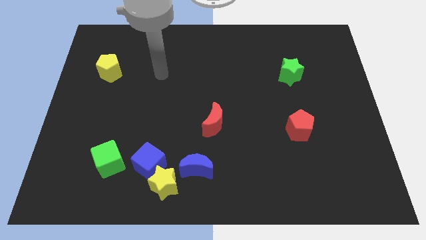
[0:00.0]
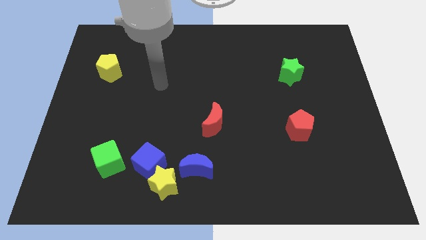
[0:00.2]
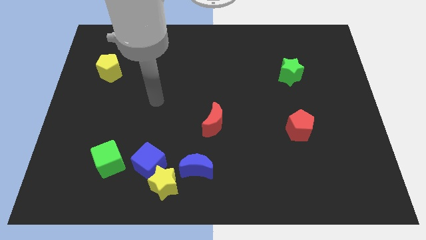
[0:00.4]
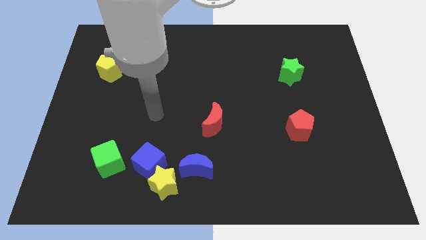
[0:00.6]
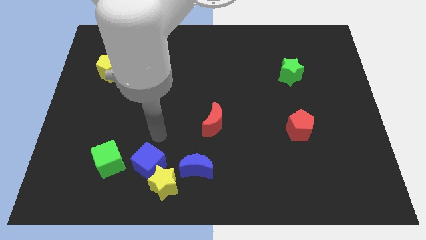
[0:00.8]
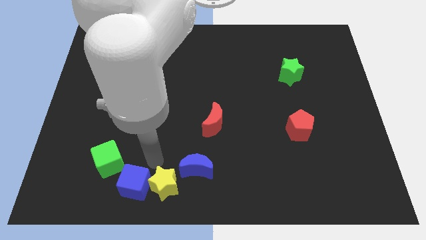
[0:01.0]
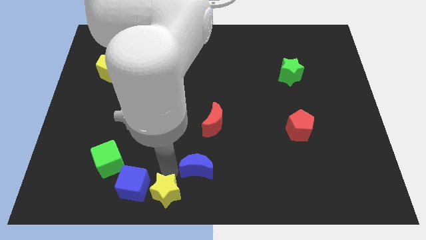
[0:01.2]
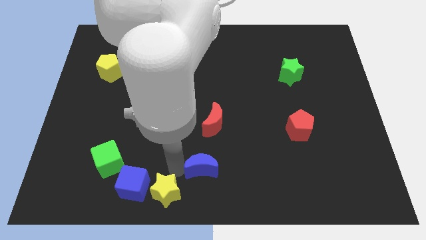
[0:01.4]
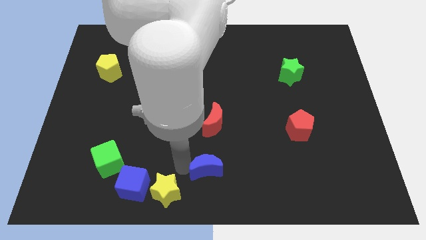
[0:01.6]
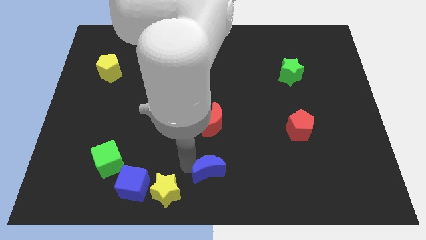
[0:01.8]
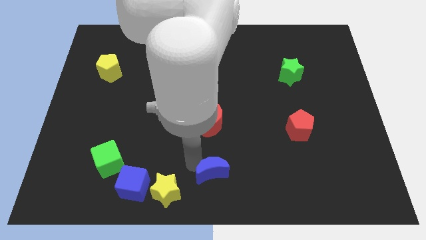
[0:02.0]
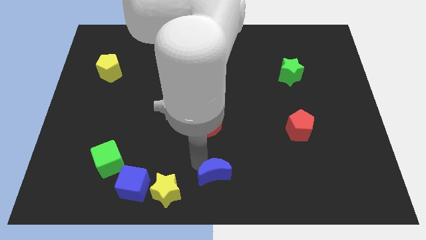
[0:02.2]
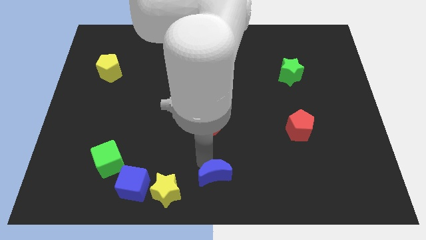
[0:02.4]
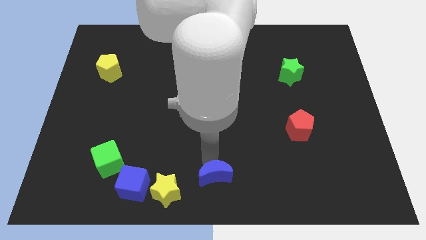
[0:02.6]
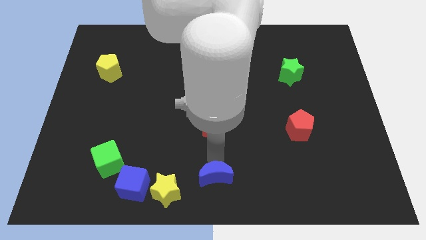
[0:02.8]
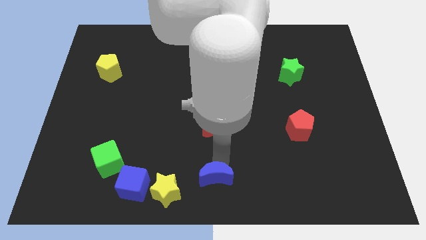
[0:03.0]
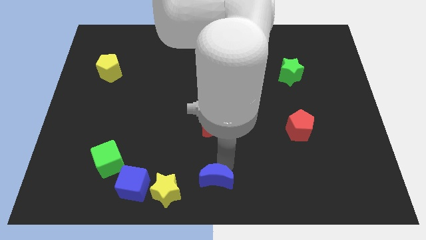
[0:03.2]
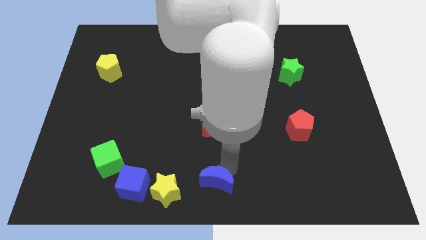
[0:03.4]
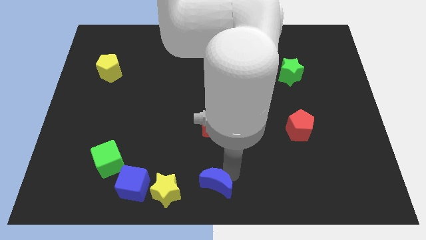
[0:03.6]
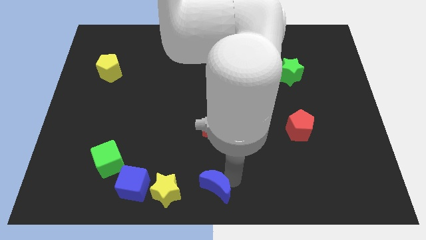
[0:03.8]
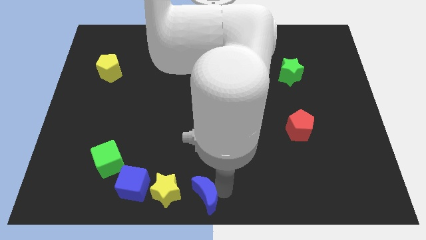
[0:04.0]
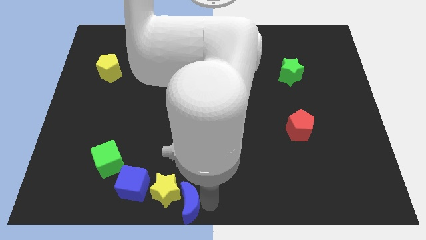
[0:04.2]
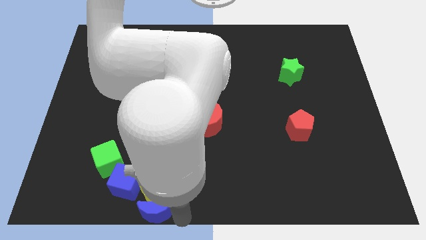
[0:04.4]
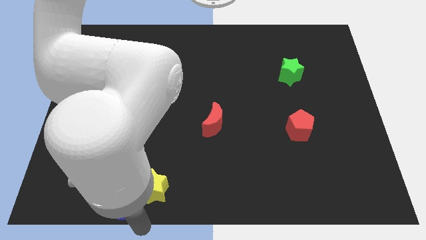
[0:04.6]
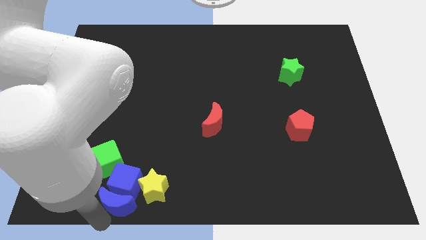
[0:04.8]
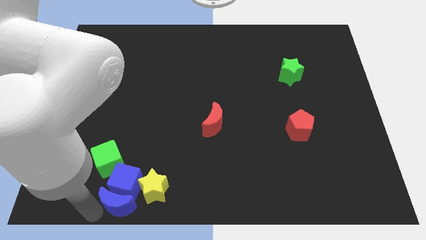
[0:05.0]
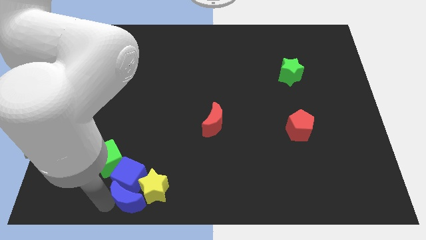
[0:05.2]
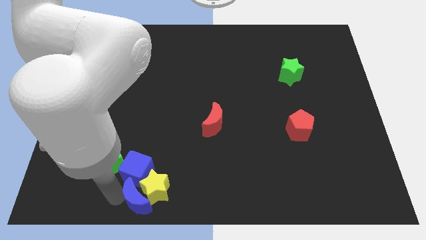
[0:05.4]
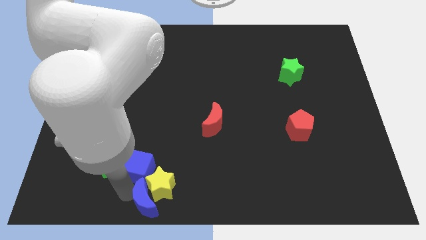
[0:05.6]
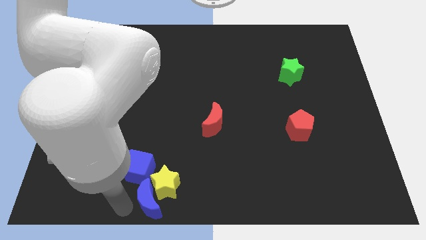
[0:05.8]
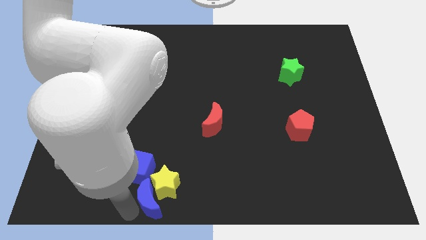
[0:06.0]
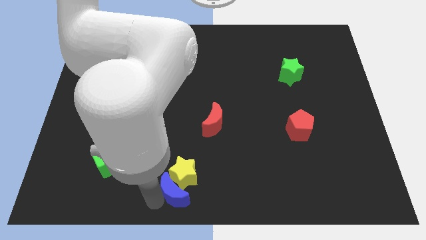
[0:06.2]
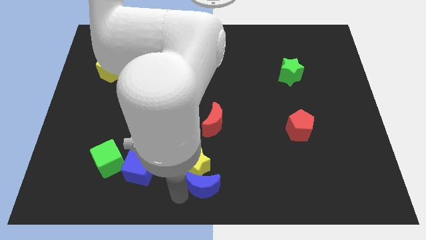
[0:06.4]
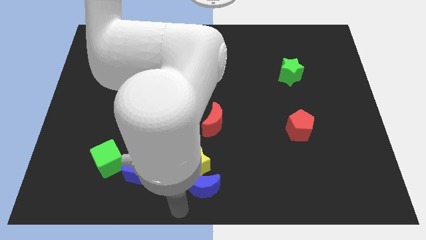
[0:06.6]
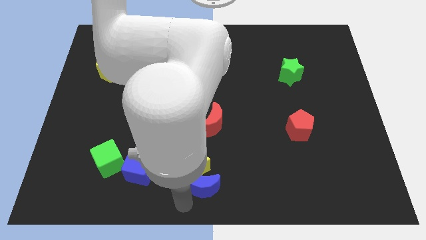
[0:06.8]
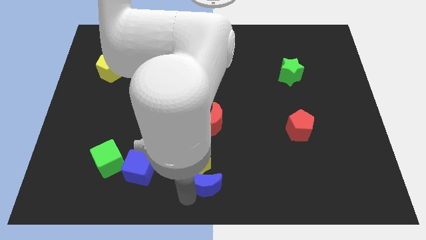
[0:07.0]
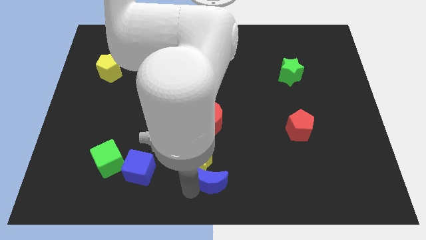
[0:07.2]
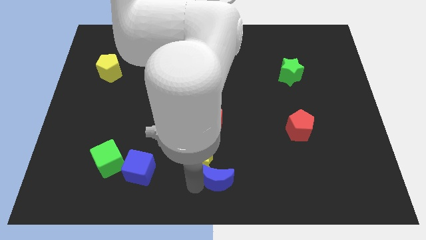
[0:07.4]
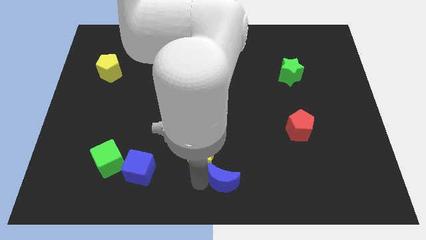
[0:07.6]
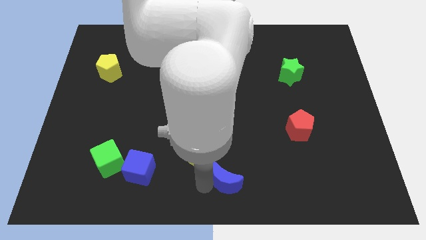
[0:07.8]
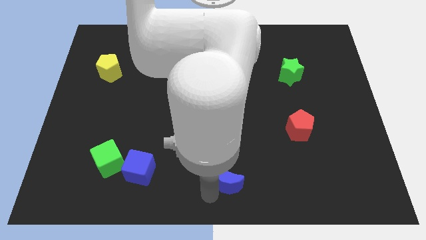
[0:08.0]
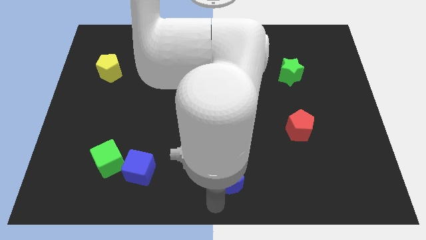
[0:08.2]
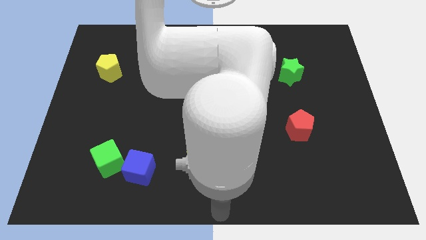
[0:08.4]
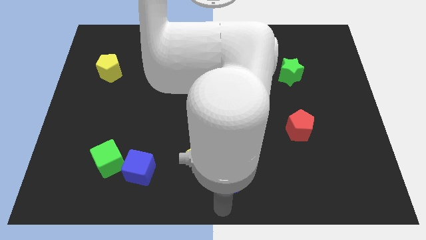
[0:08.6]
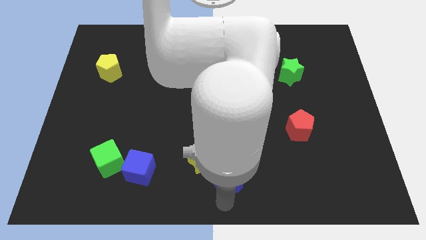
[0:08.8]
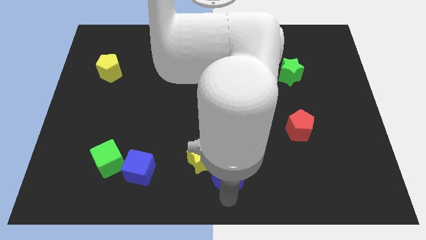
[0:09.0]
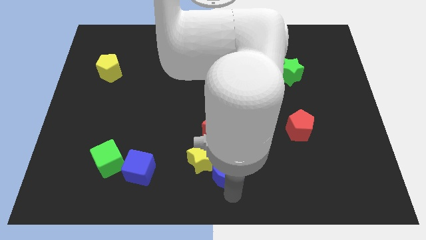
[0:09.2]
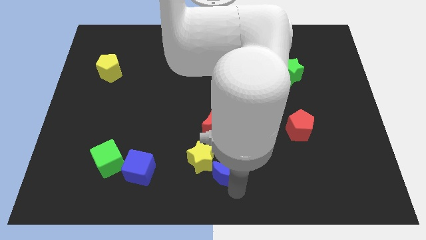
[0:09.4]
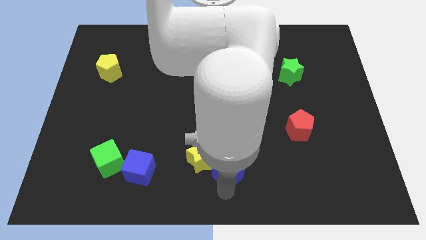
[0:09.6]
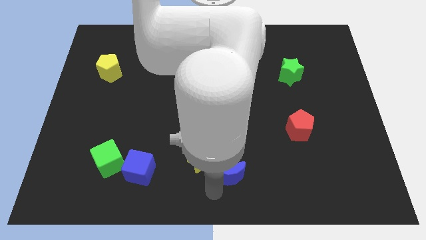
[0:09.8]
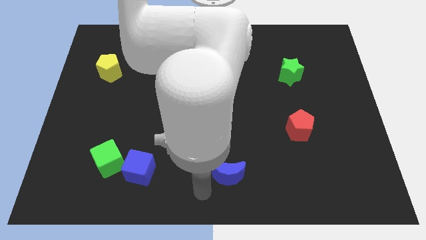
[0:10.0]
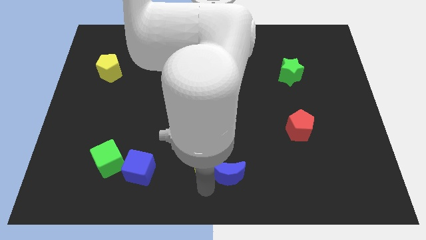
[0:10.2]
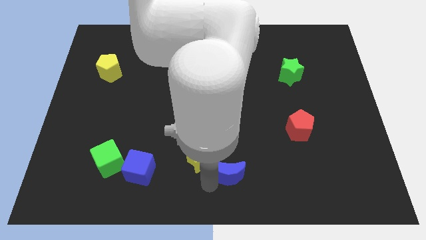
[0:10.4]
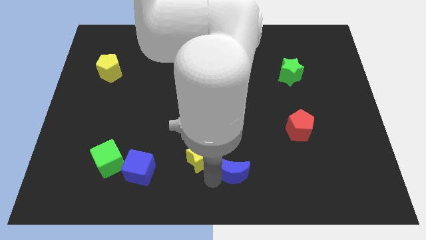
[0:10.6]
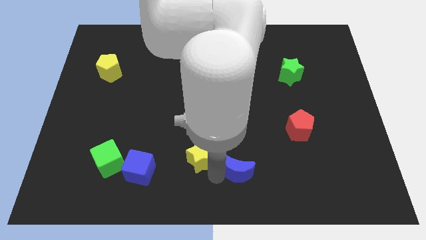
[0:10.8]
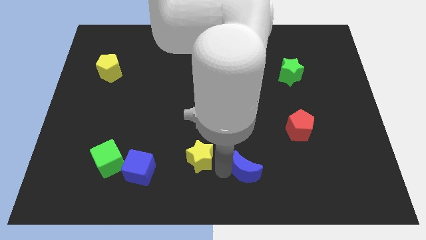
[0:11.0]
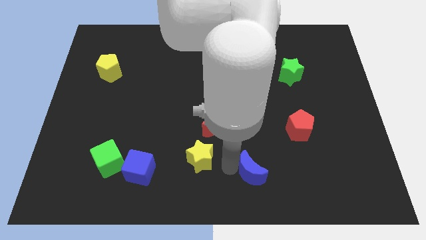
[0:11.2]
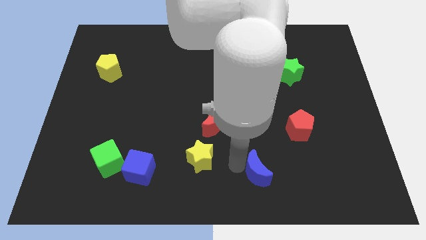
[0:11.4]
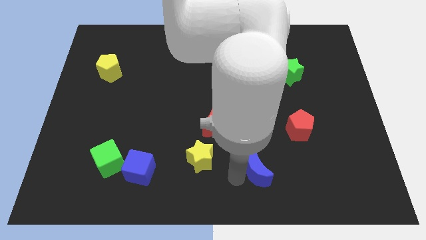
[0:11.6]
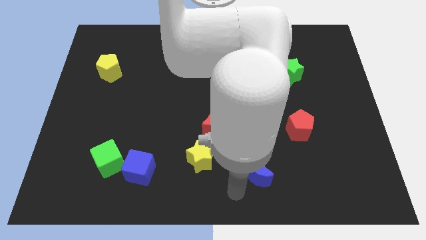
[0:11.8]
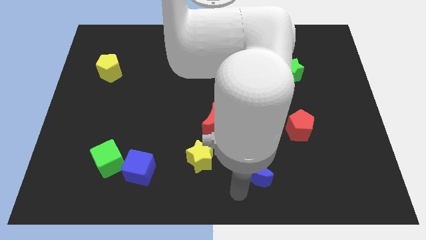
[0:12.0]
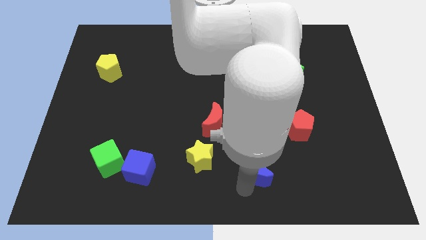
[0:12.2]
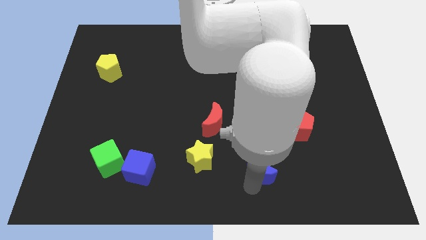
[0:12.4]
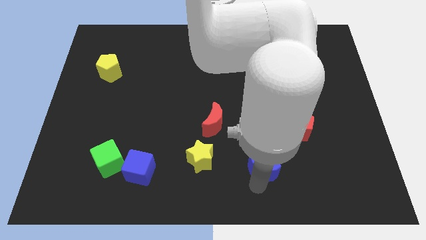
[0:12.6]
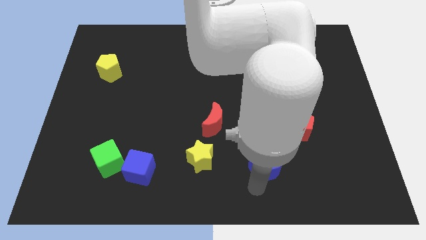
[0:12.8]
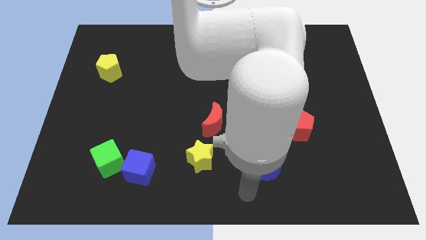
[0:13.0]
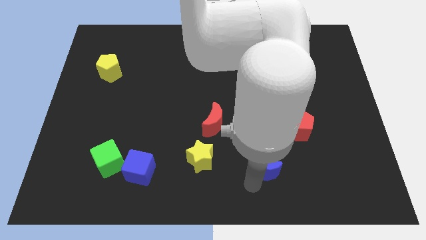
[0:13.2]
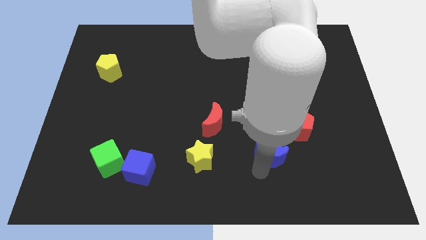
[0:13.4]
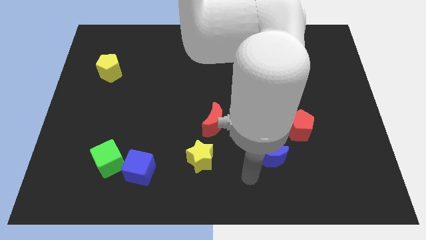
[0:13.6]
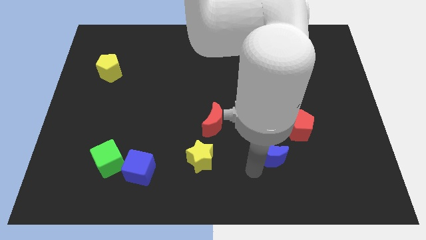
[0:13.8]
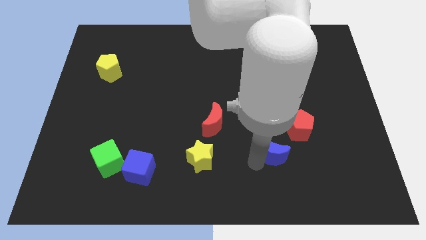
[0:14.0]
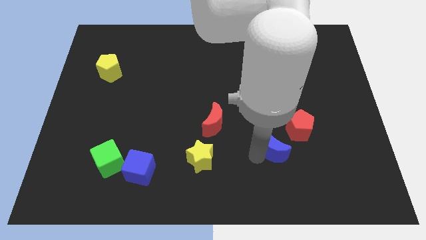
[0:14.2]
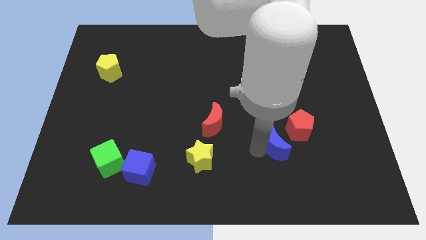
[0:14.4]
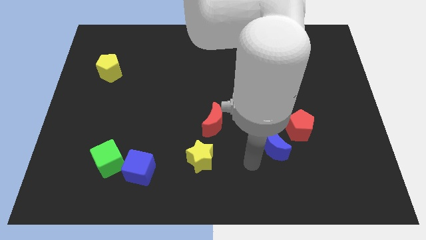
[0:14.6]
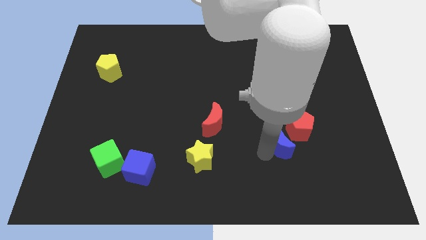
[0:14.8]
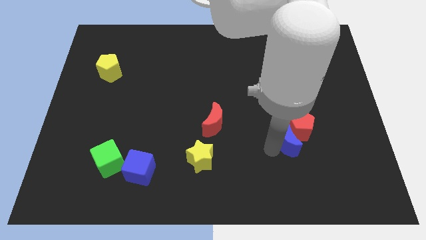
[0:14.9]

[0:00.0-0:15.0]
put the blue moon next to the red pentagon
